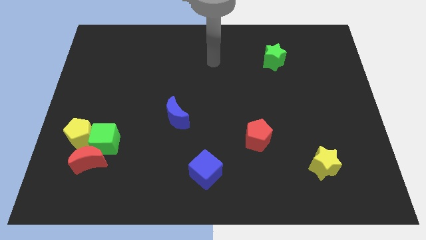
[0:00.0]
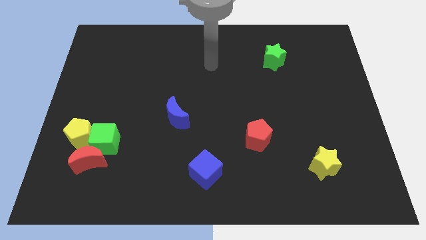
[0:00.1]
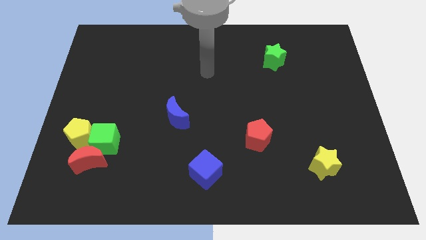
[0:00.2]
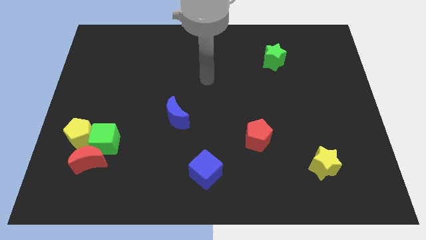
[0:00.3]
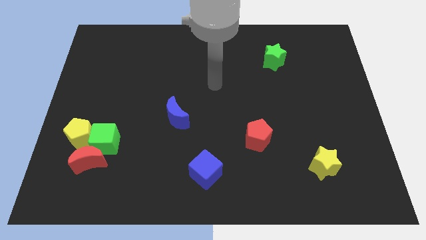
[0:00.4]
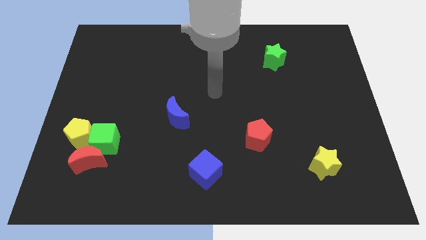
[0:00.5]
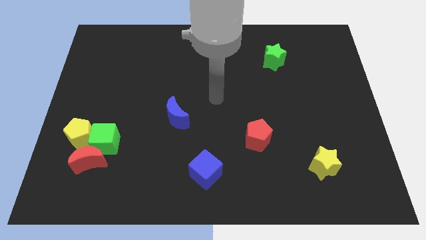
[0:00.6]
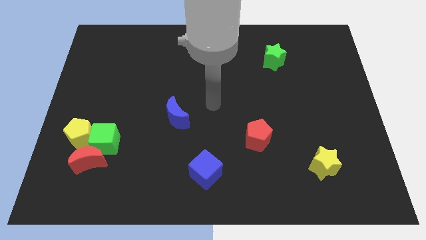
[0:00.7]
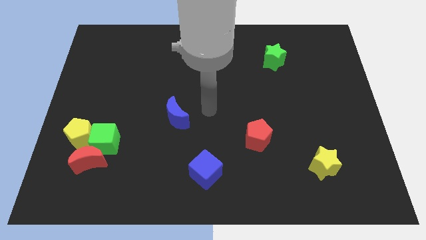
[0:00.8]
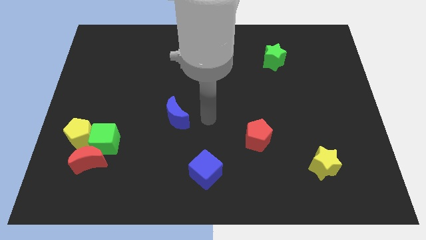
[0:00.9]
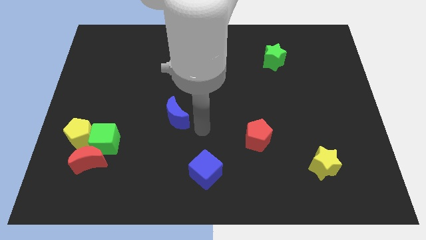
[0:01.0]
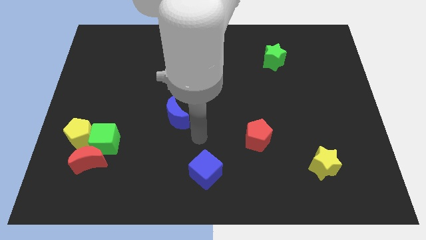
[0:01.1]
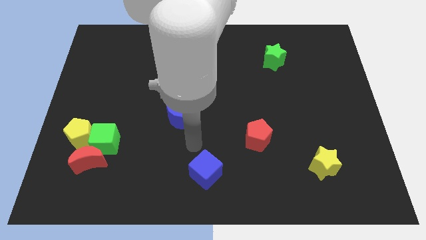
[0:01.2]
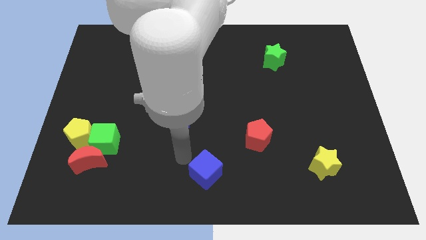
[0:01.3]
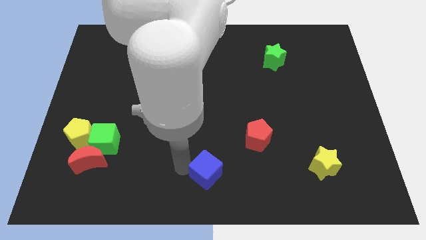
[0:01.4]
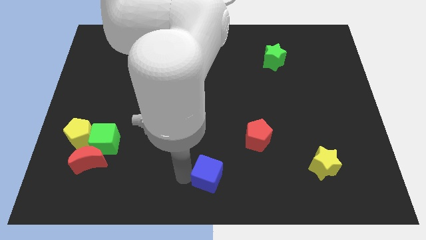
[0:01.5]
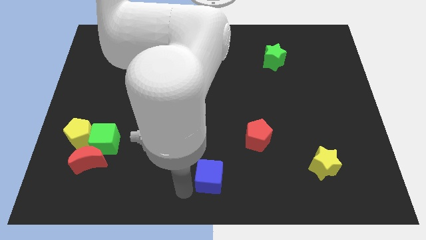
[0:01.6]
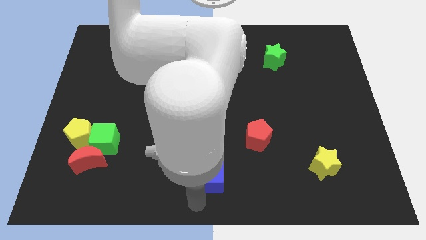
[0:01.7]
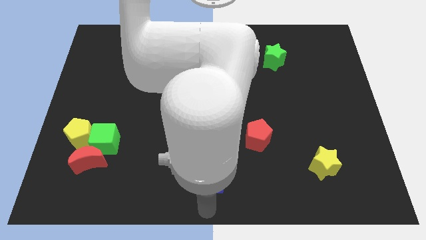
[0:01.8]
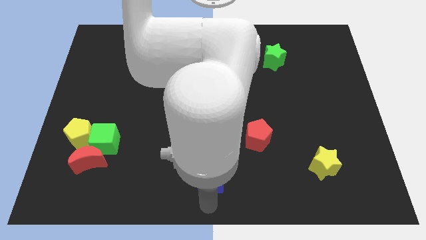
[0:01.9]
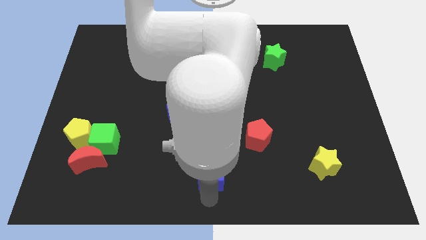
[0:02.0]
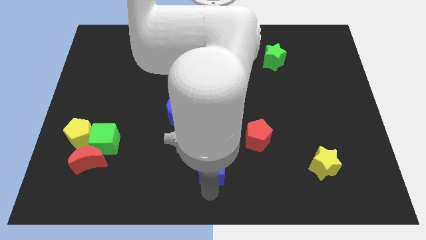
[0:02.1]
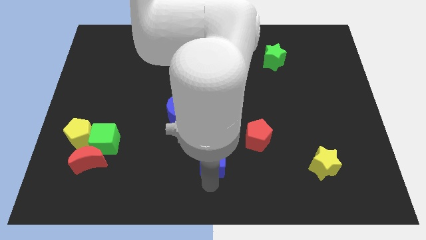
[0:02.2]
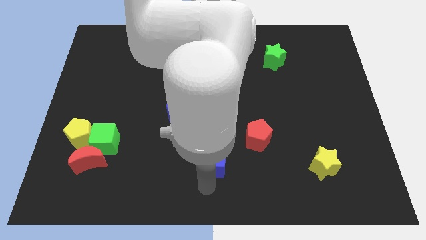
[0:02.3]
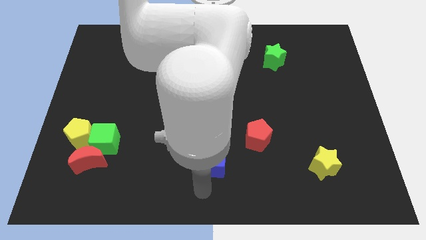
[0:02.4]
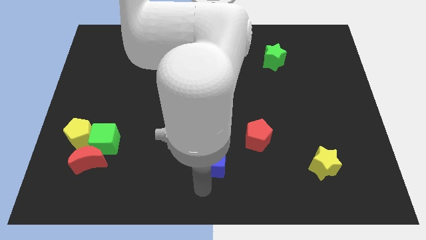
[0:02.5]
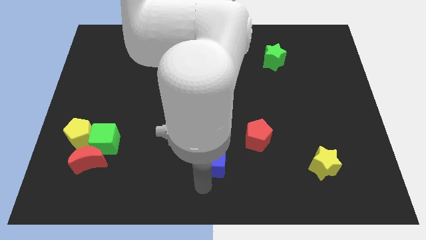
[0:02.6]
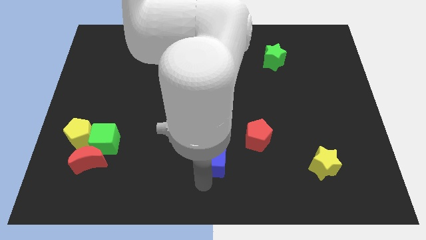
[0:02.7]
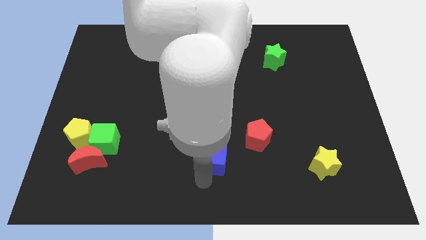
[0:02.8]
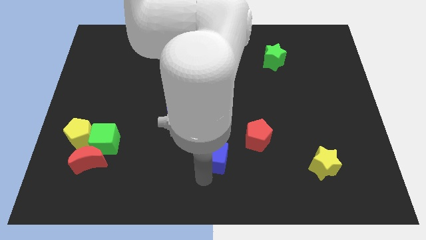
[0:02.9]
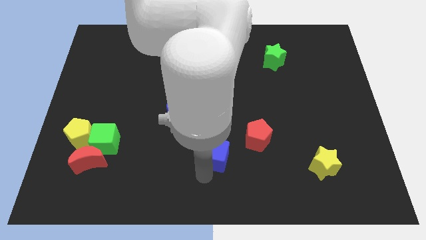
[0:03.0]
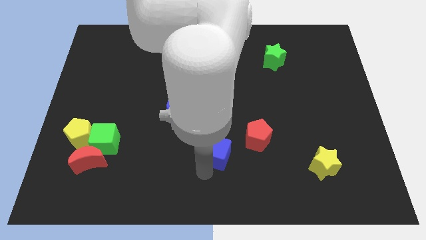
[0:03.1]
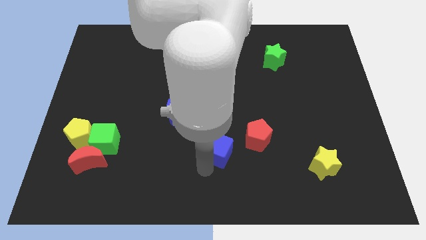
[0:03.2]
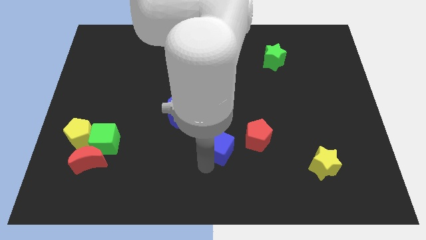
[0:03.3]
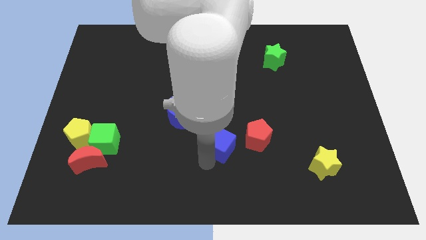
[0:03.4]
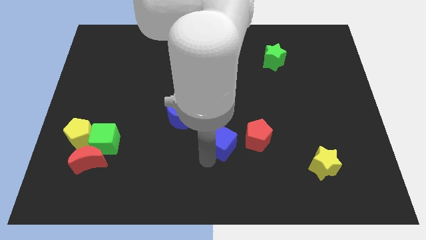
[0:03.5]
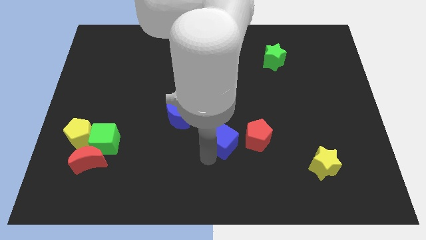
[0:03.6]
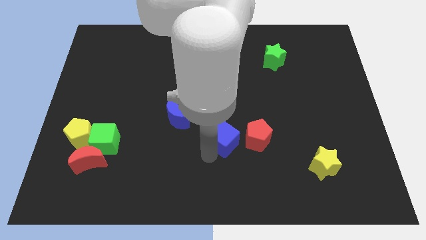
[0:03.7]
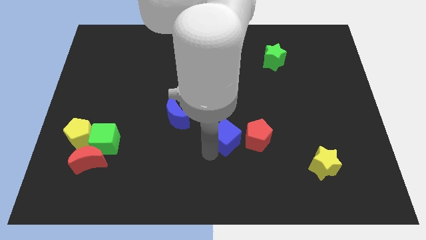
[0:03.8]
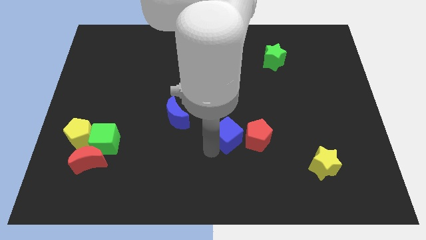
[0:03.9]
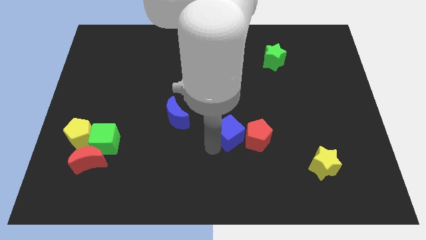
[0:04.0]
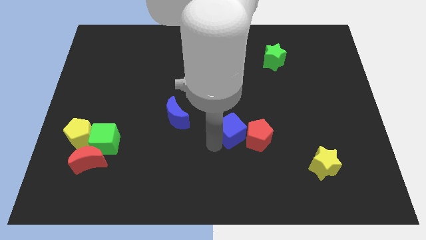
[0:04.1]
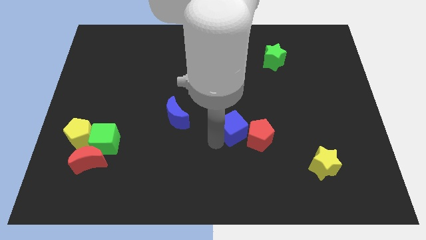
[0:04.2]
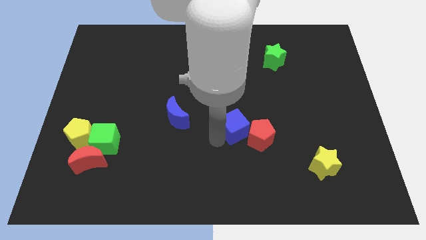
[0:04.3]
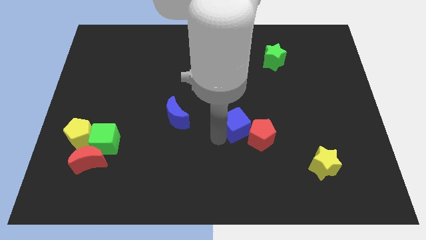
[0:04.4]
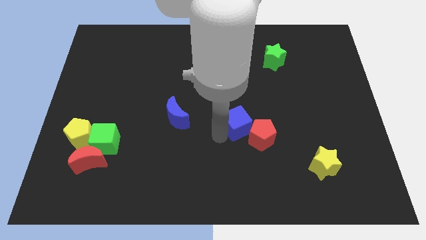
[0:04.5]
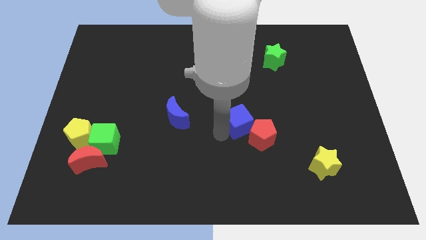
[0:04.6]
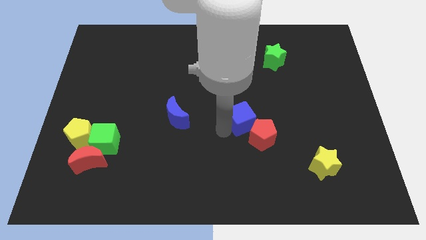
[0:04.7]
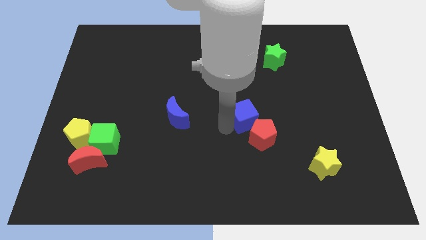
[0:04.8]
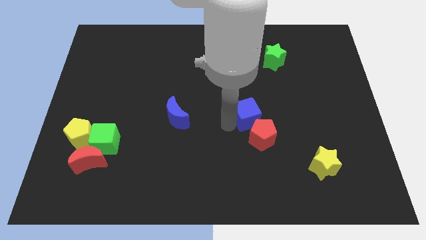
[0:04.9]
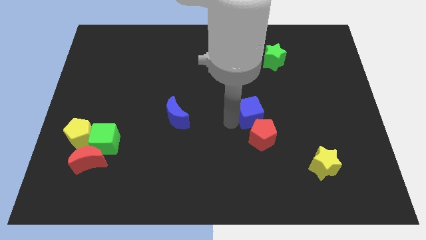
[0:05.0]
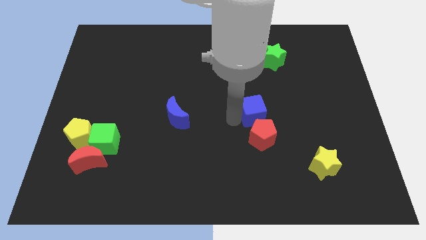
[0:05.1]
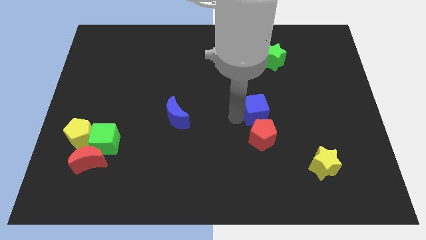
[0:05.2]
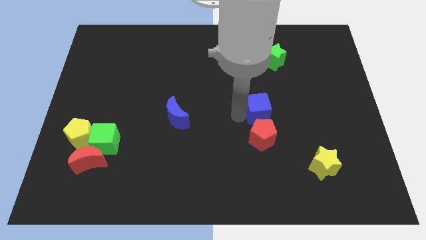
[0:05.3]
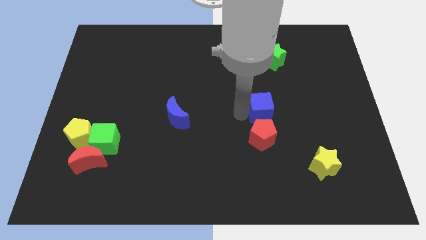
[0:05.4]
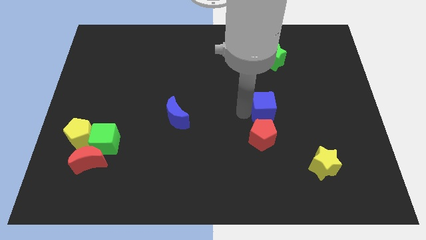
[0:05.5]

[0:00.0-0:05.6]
push the blue cube diagonally up and to the right of the red pentagon

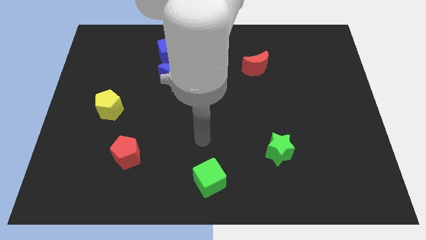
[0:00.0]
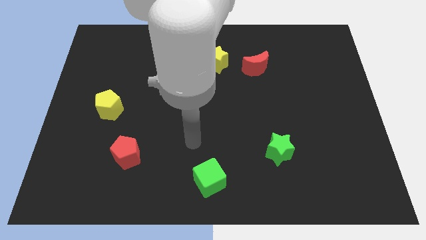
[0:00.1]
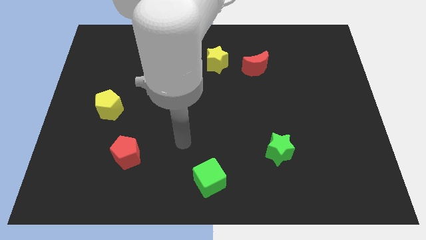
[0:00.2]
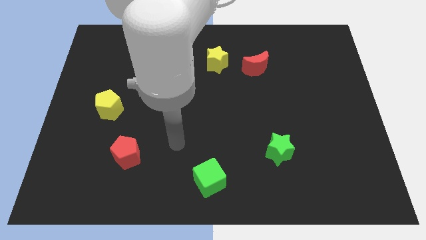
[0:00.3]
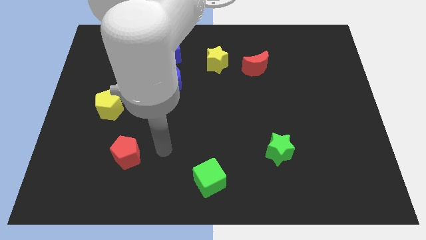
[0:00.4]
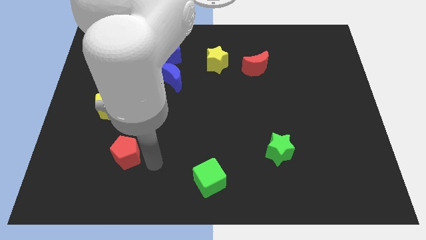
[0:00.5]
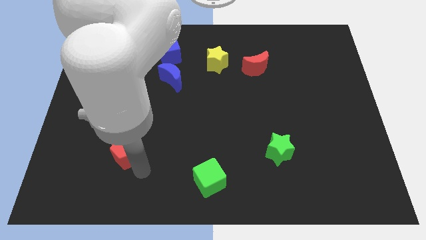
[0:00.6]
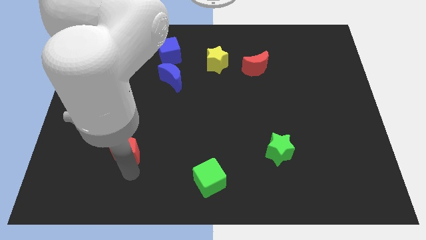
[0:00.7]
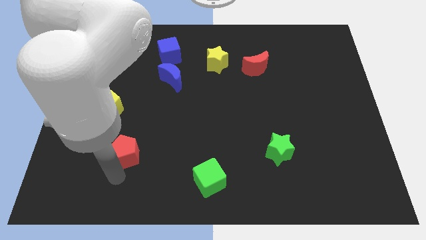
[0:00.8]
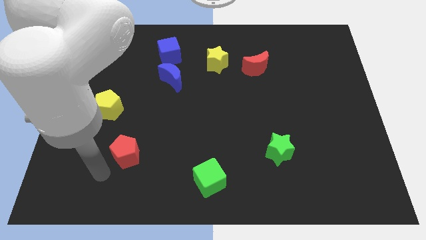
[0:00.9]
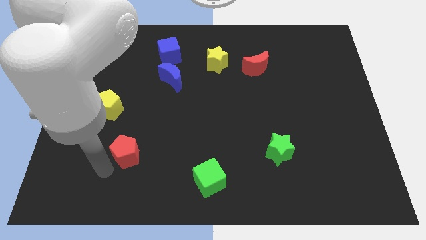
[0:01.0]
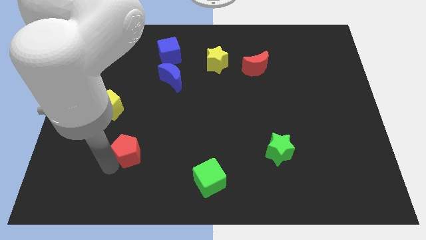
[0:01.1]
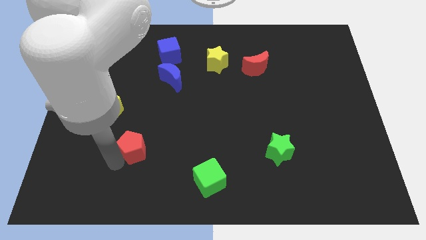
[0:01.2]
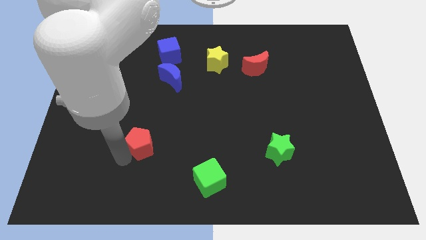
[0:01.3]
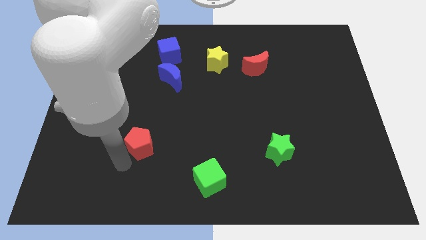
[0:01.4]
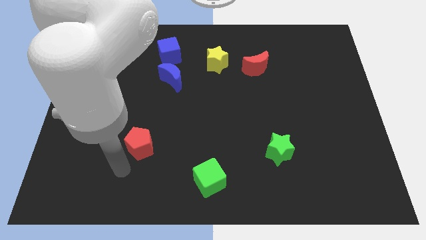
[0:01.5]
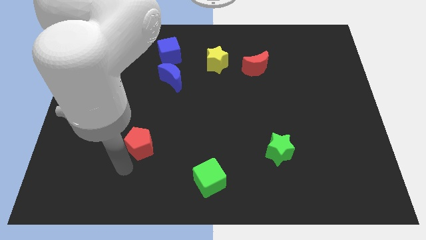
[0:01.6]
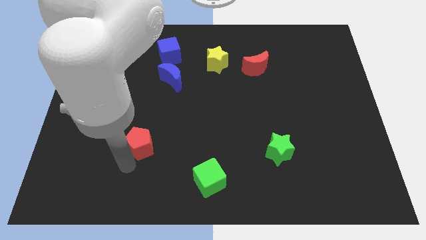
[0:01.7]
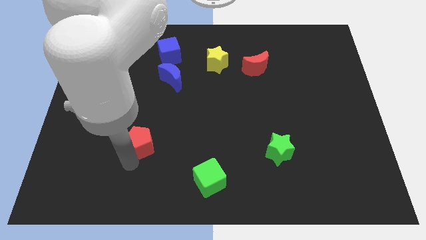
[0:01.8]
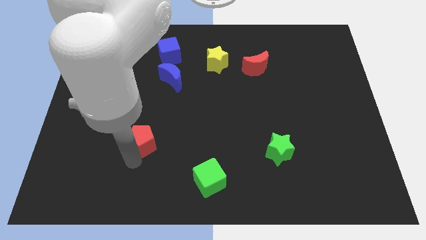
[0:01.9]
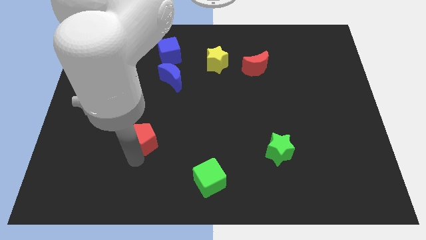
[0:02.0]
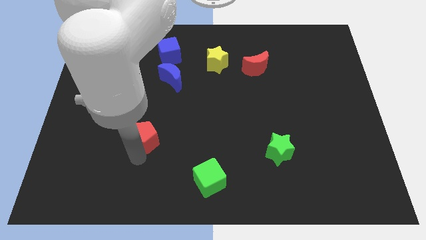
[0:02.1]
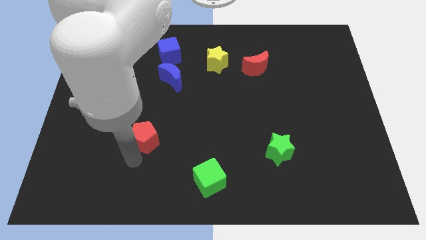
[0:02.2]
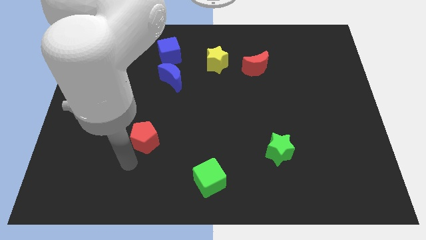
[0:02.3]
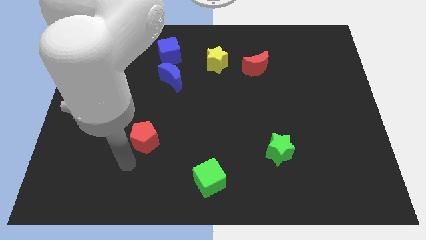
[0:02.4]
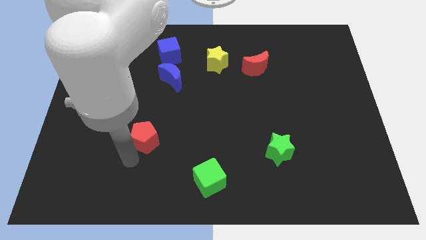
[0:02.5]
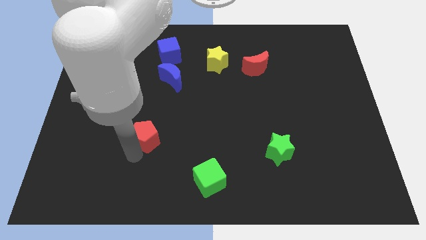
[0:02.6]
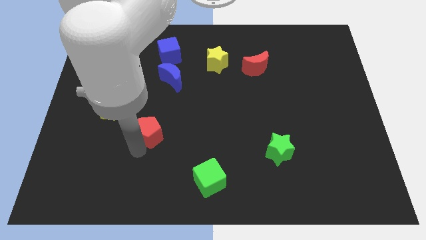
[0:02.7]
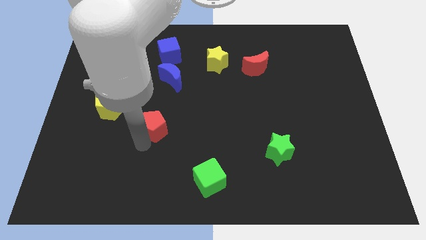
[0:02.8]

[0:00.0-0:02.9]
push the red pentagon to the bottom of the blue moon
